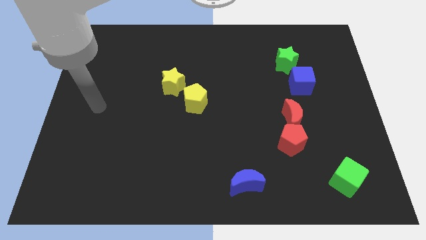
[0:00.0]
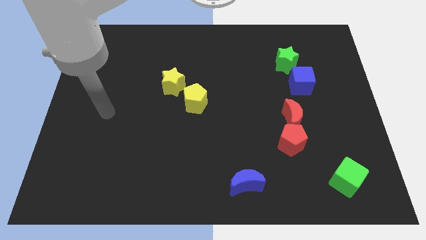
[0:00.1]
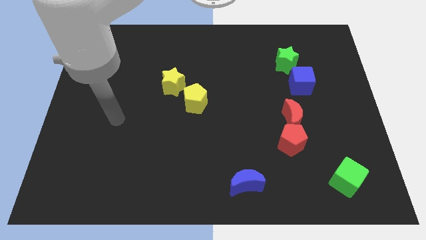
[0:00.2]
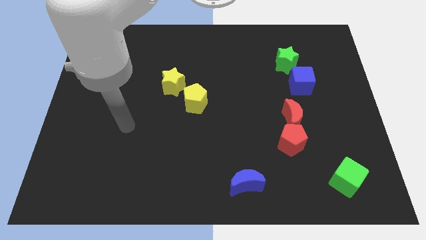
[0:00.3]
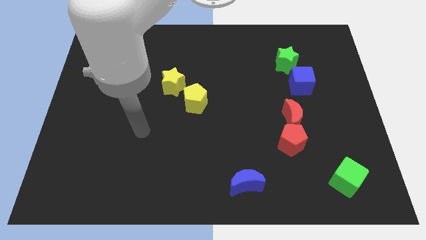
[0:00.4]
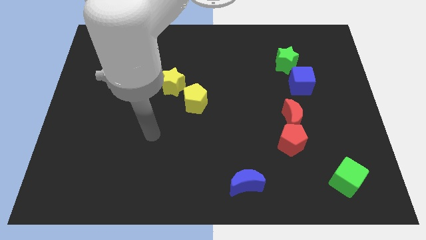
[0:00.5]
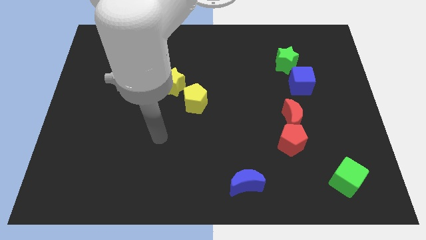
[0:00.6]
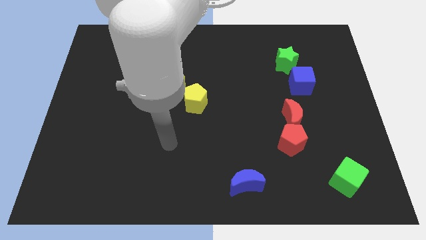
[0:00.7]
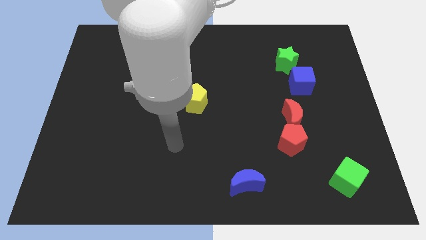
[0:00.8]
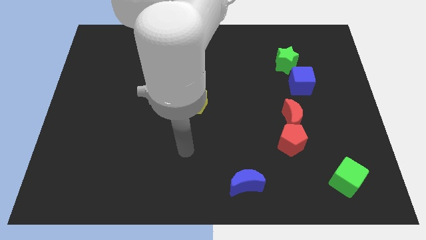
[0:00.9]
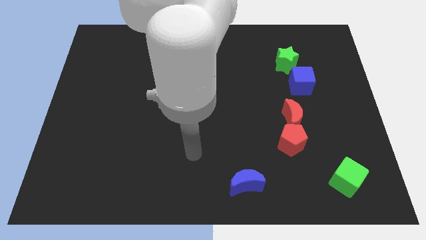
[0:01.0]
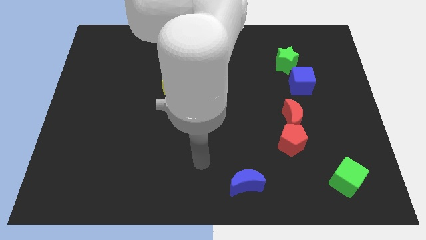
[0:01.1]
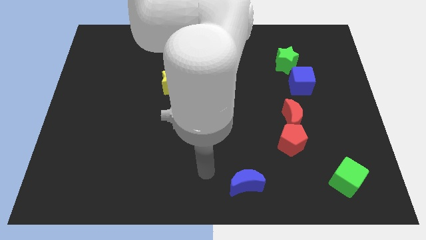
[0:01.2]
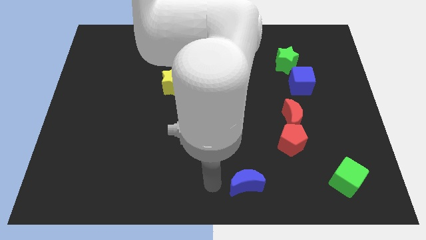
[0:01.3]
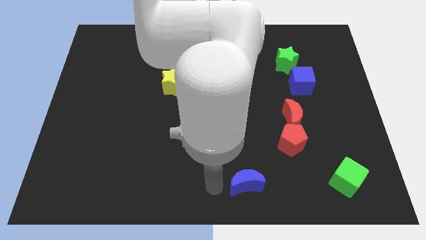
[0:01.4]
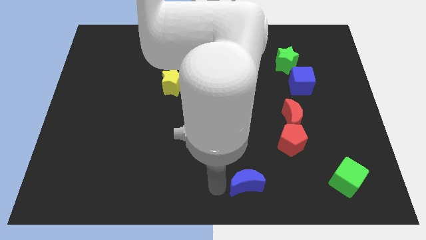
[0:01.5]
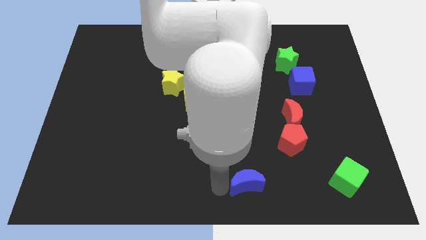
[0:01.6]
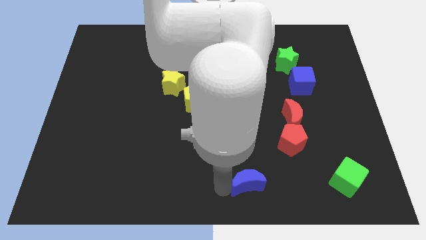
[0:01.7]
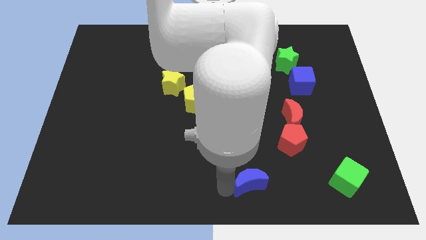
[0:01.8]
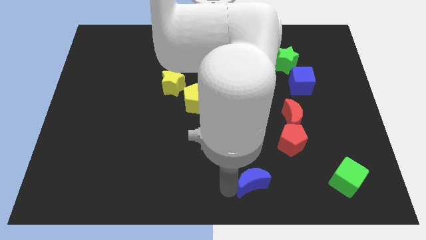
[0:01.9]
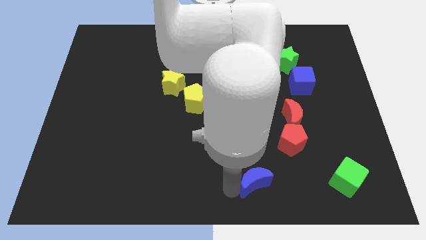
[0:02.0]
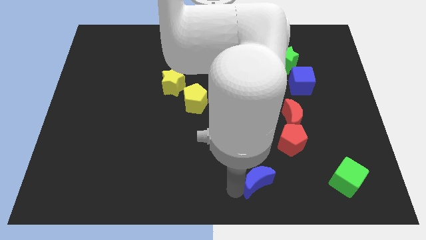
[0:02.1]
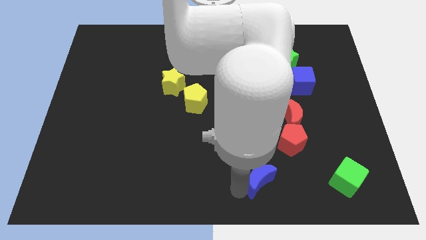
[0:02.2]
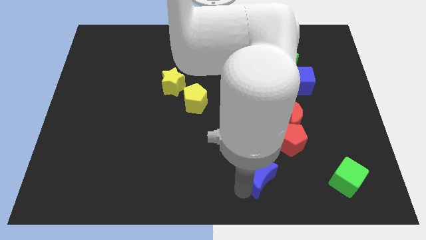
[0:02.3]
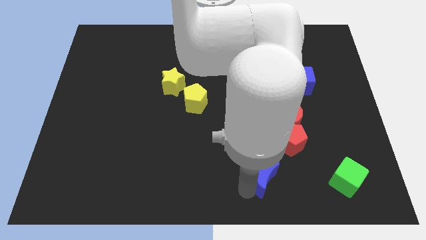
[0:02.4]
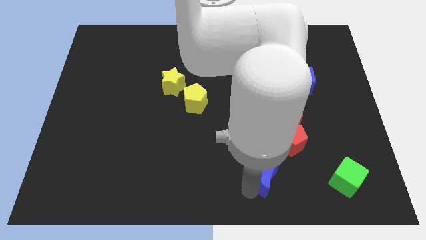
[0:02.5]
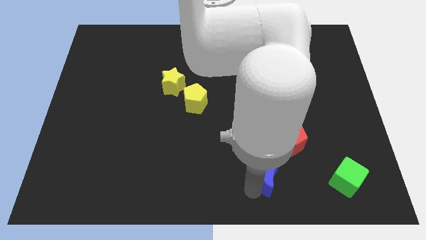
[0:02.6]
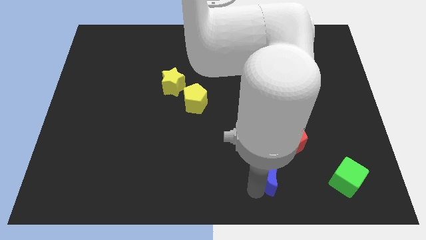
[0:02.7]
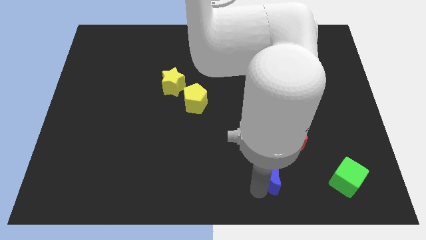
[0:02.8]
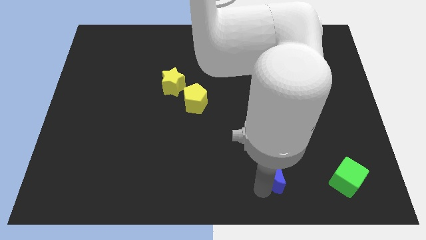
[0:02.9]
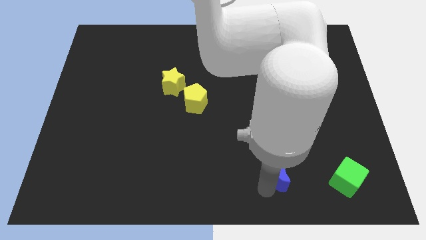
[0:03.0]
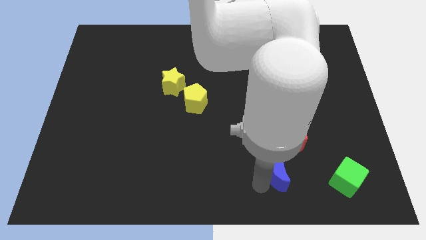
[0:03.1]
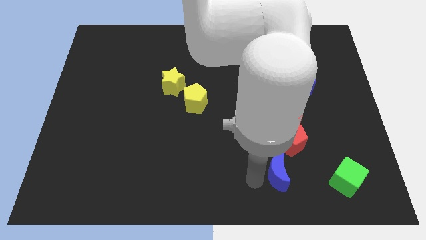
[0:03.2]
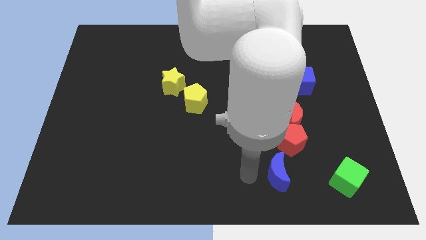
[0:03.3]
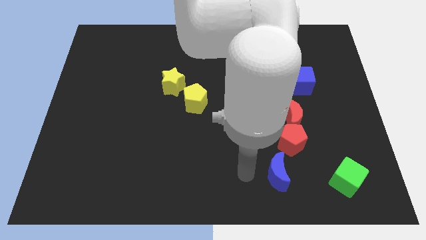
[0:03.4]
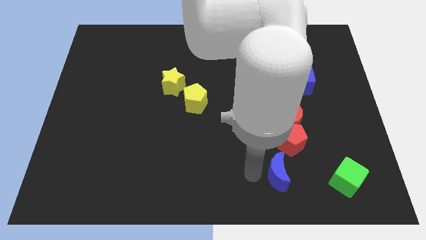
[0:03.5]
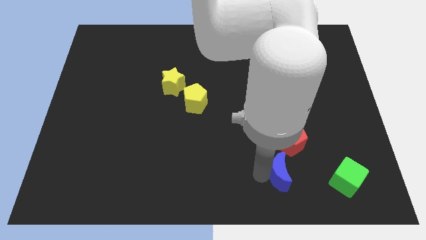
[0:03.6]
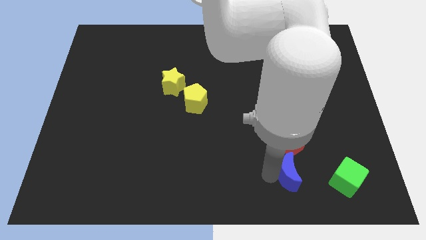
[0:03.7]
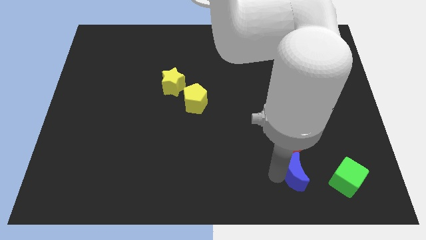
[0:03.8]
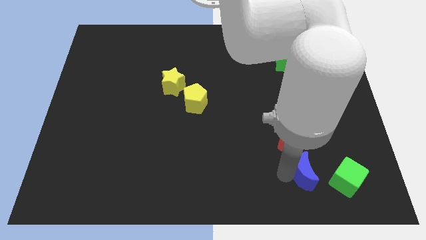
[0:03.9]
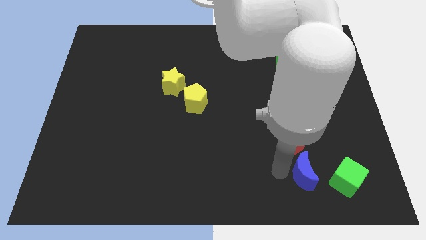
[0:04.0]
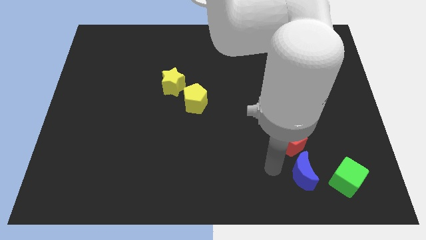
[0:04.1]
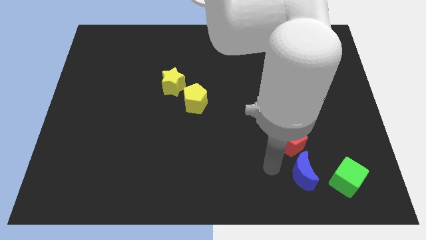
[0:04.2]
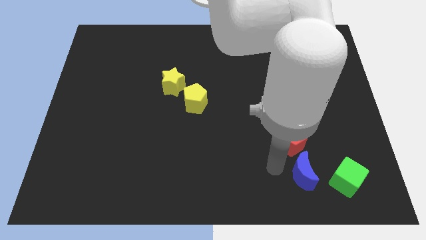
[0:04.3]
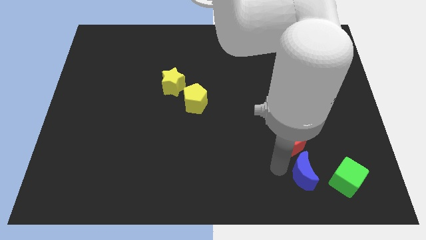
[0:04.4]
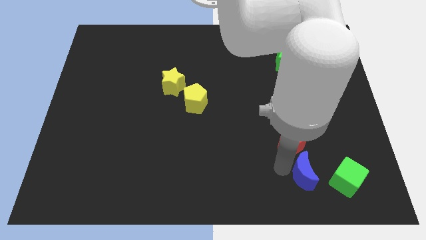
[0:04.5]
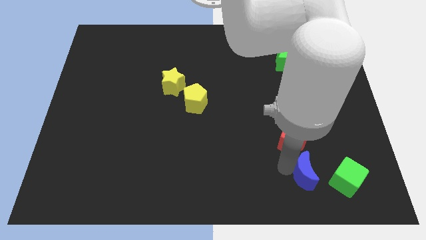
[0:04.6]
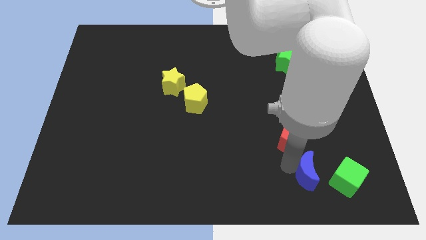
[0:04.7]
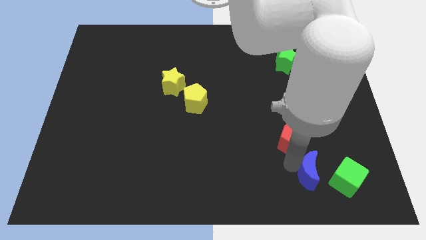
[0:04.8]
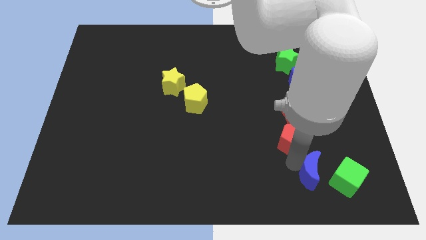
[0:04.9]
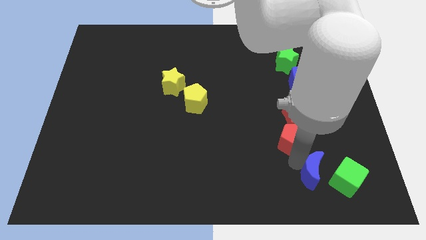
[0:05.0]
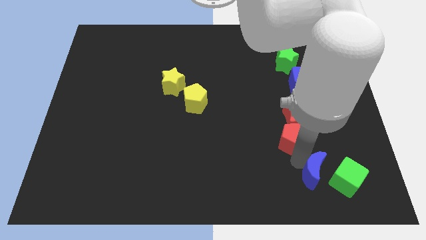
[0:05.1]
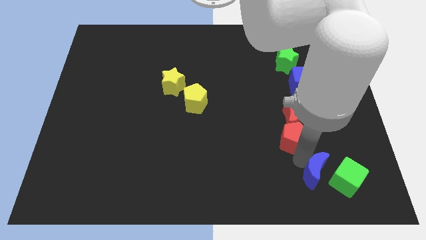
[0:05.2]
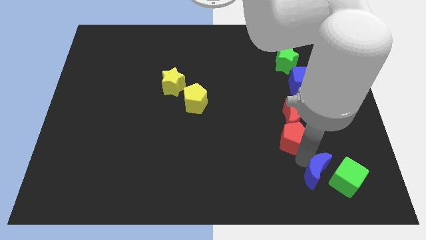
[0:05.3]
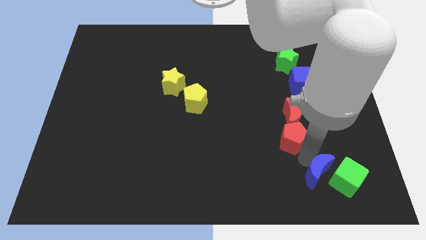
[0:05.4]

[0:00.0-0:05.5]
put the blue moon next to the green cube

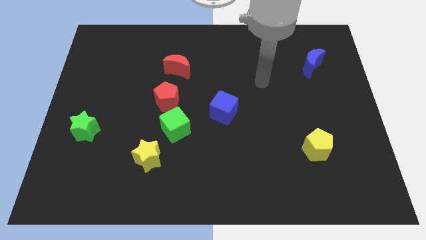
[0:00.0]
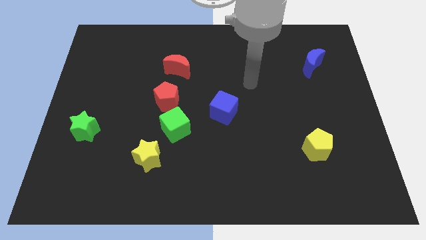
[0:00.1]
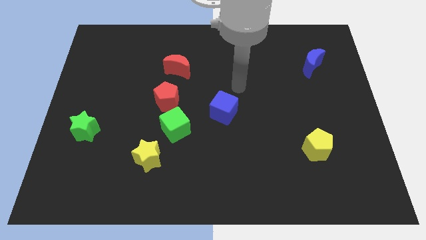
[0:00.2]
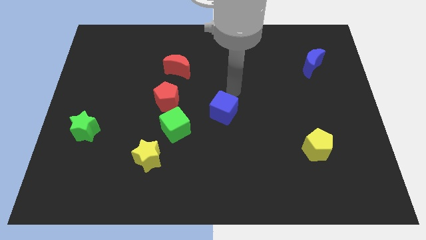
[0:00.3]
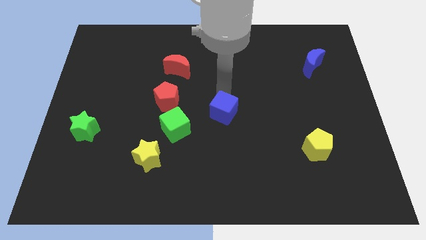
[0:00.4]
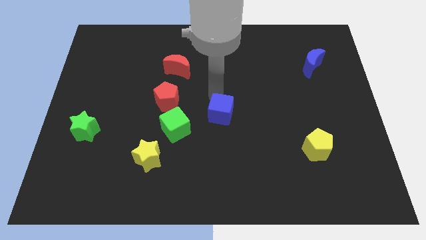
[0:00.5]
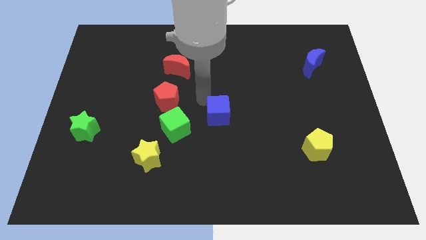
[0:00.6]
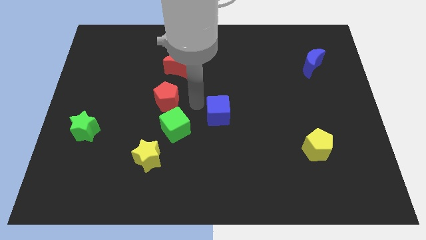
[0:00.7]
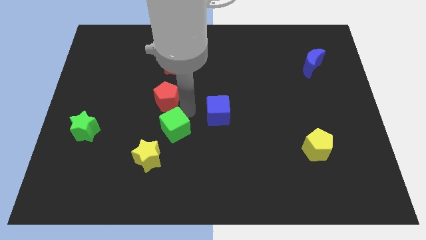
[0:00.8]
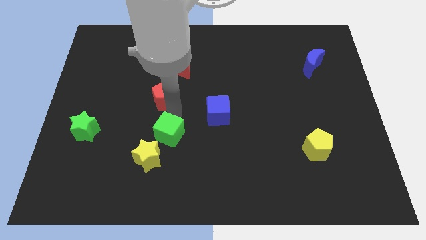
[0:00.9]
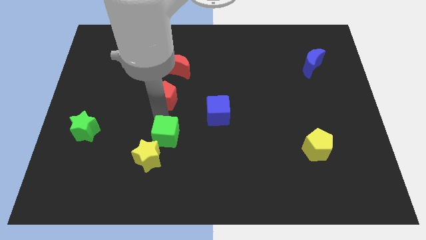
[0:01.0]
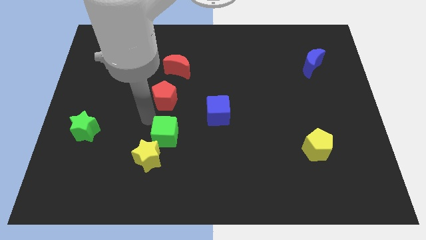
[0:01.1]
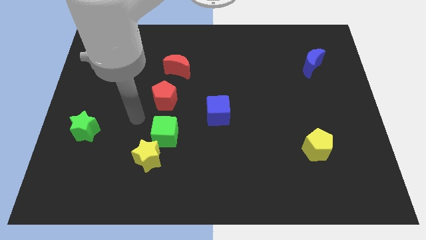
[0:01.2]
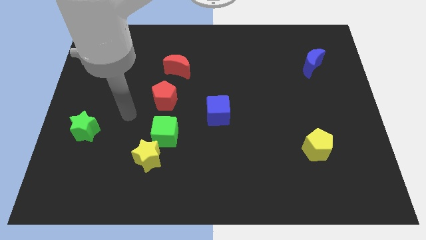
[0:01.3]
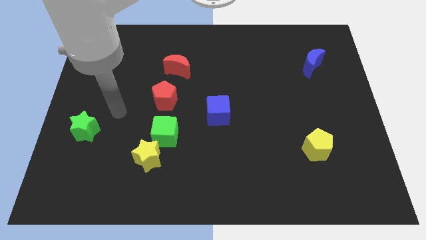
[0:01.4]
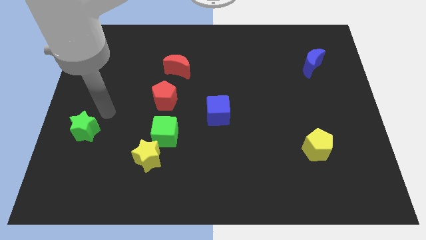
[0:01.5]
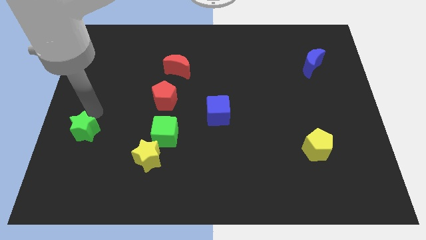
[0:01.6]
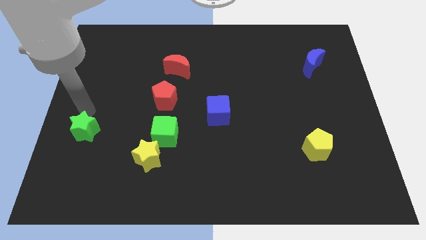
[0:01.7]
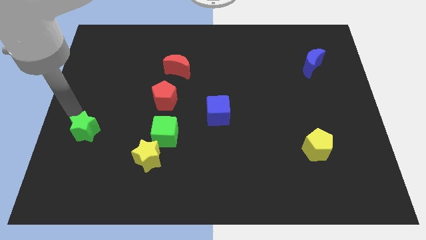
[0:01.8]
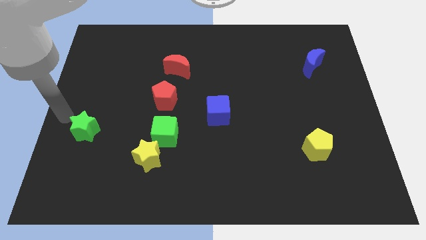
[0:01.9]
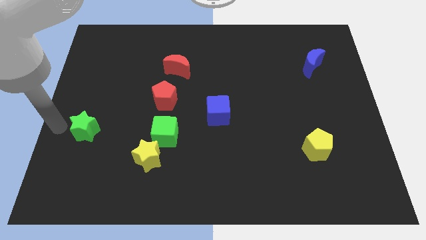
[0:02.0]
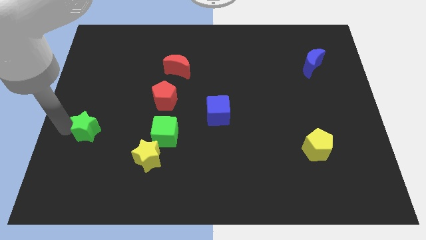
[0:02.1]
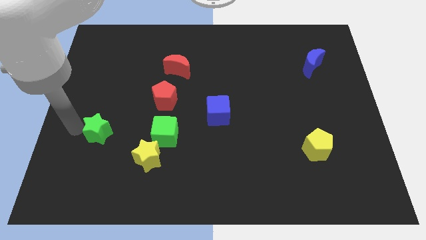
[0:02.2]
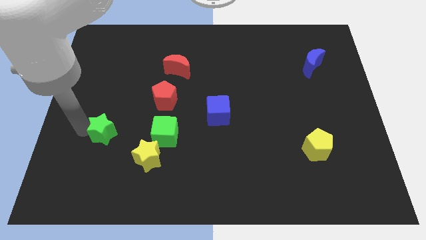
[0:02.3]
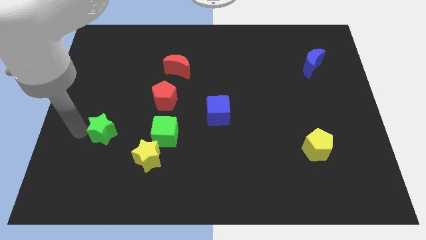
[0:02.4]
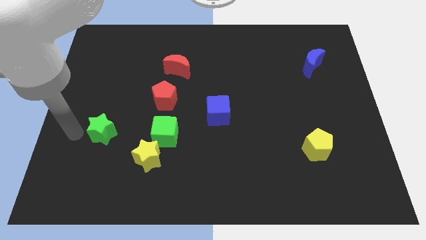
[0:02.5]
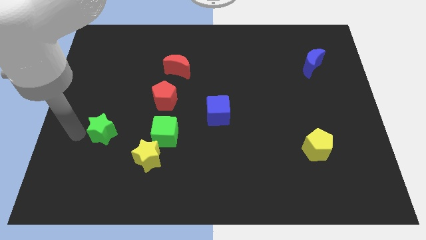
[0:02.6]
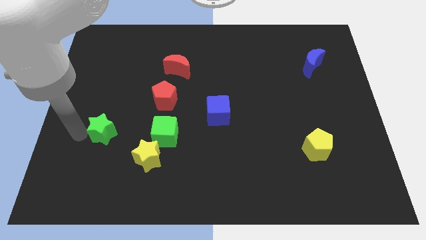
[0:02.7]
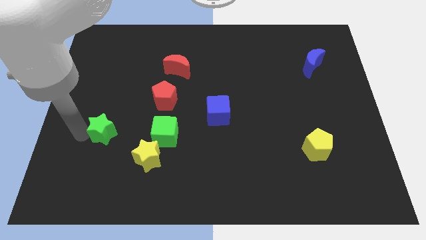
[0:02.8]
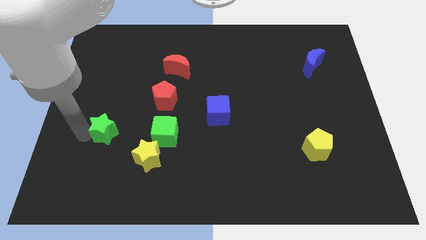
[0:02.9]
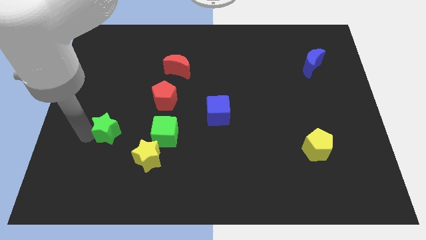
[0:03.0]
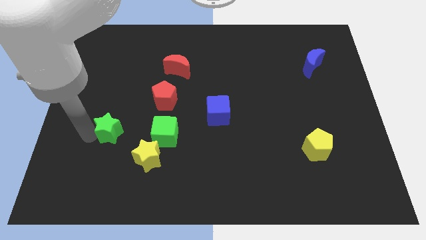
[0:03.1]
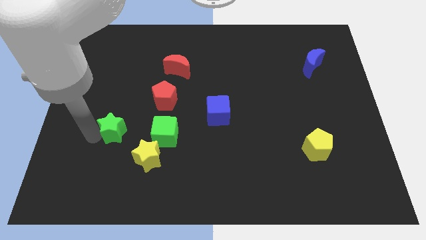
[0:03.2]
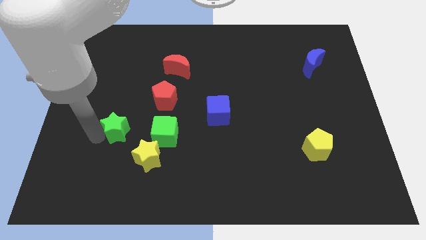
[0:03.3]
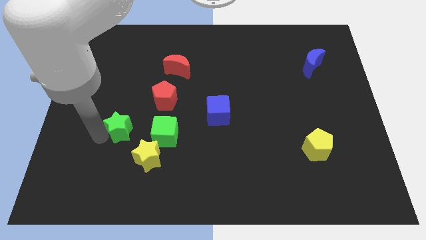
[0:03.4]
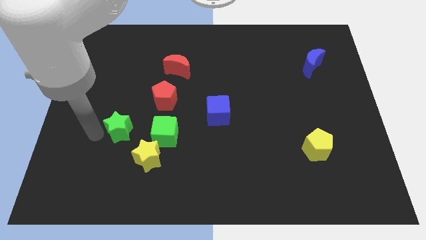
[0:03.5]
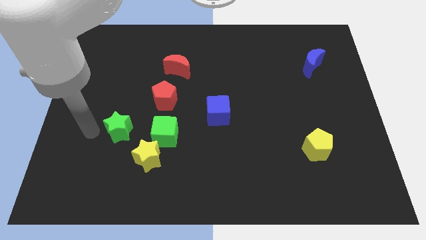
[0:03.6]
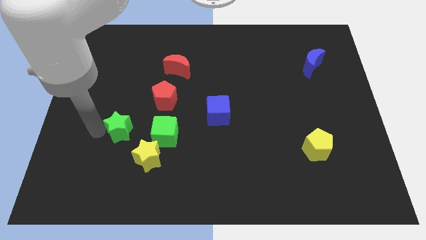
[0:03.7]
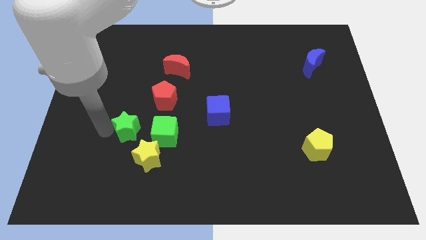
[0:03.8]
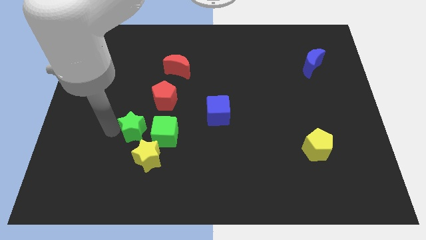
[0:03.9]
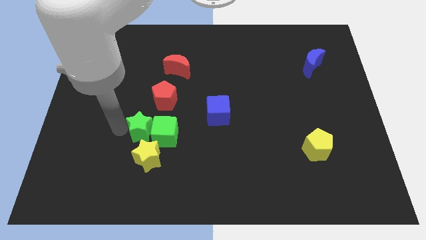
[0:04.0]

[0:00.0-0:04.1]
put the green star to the green cube
